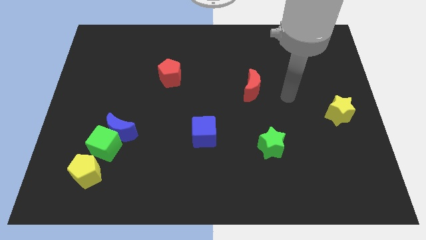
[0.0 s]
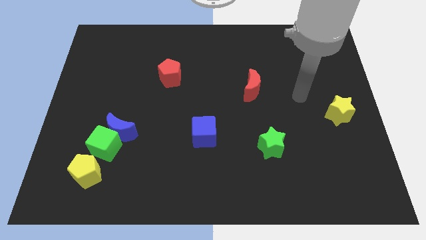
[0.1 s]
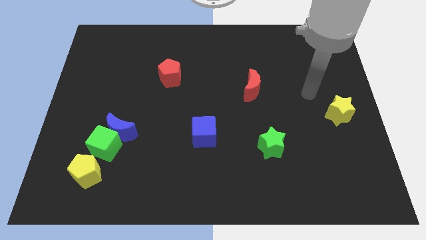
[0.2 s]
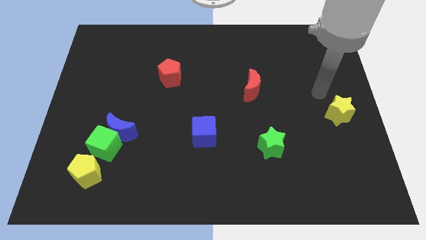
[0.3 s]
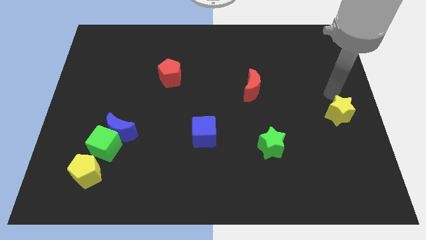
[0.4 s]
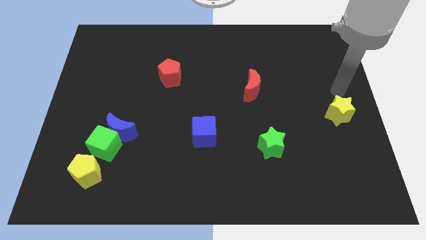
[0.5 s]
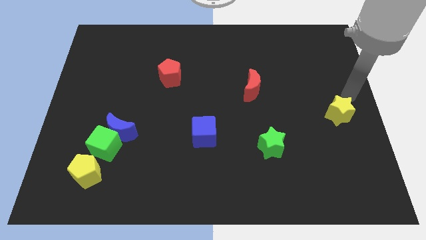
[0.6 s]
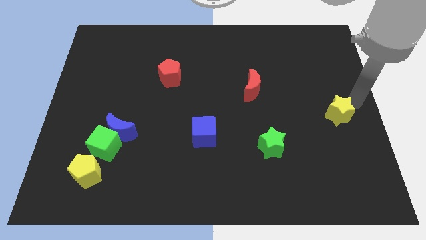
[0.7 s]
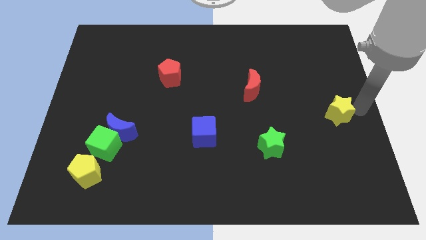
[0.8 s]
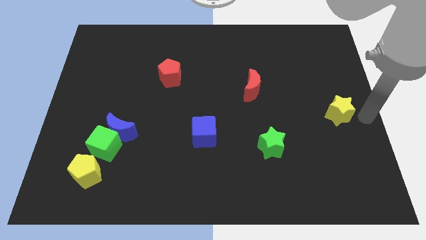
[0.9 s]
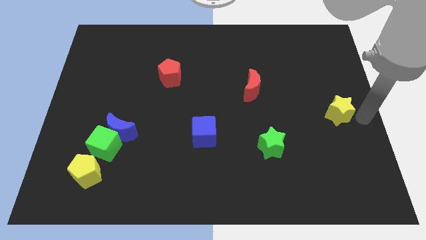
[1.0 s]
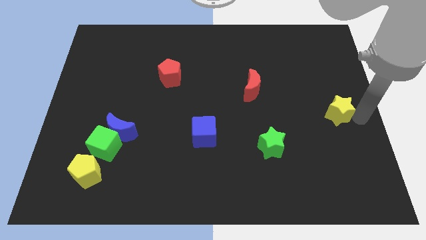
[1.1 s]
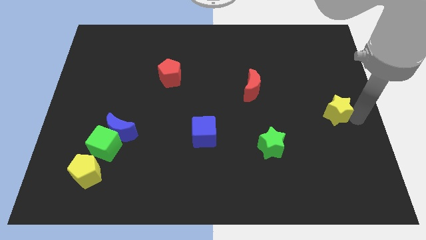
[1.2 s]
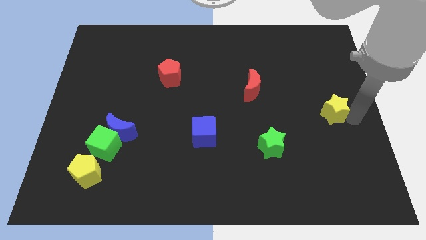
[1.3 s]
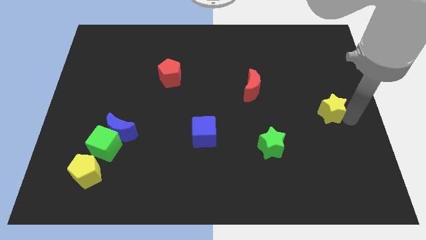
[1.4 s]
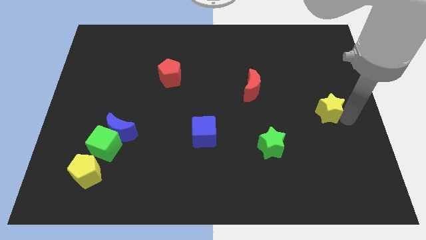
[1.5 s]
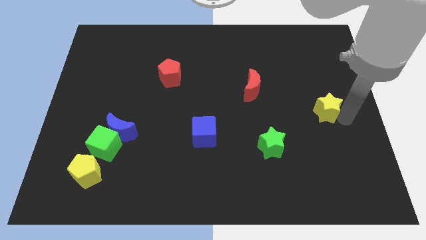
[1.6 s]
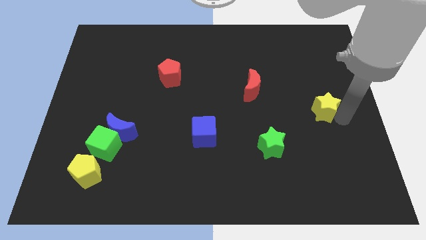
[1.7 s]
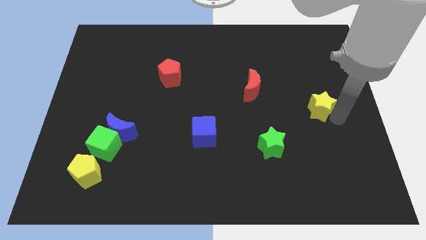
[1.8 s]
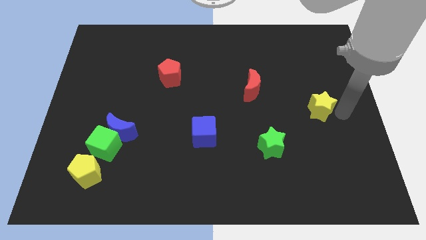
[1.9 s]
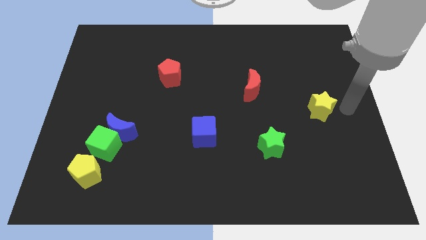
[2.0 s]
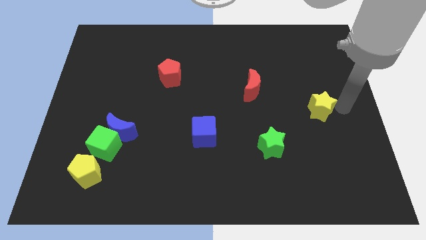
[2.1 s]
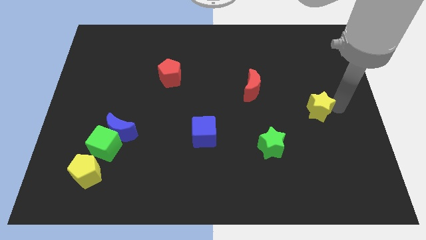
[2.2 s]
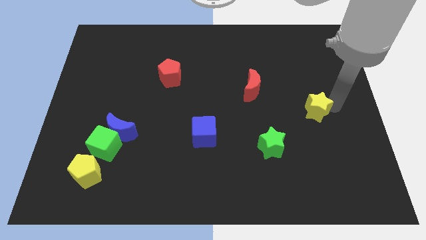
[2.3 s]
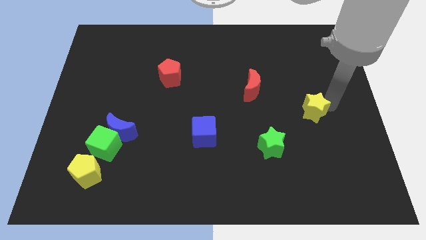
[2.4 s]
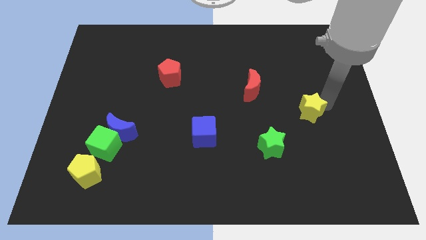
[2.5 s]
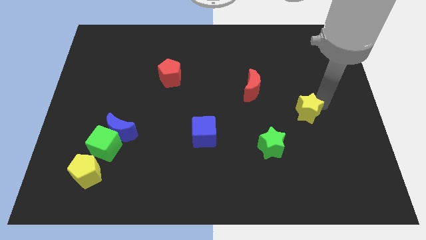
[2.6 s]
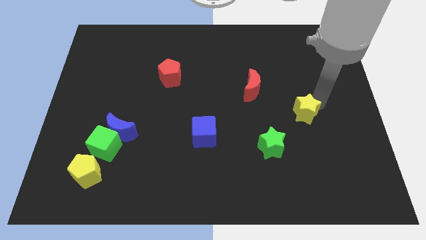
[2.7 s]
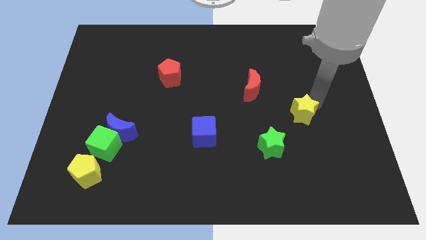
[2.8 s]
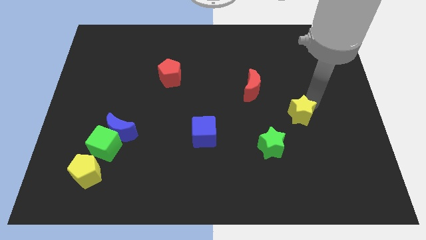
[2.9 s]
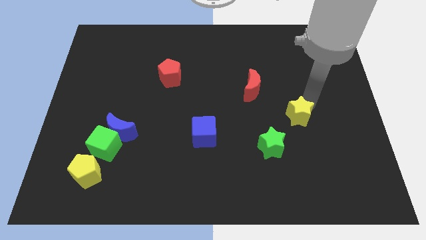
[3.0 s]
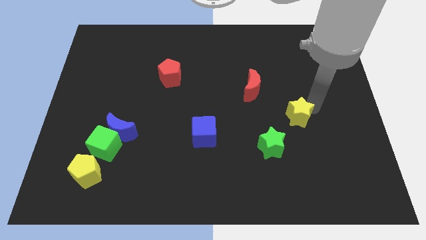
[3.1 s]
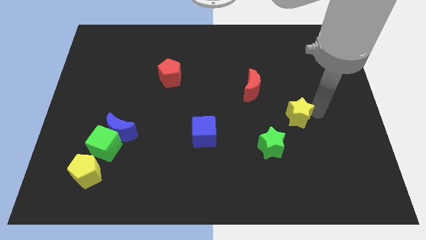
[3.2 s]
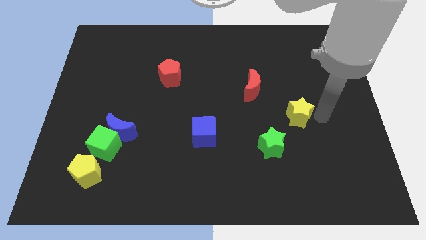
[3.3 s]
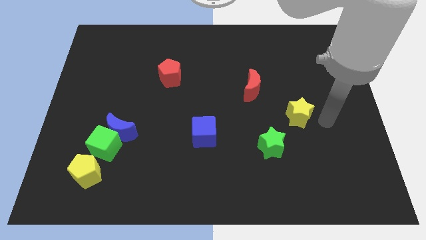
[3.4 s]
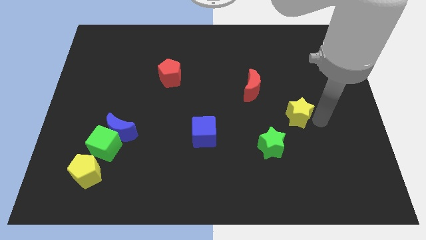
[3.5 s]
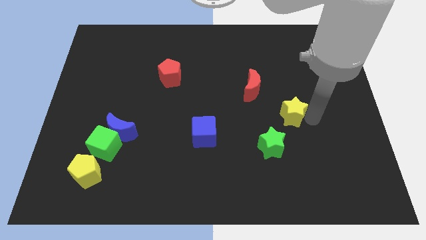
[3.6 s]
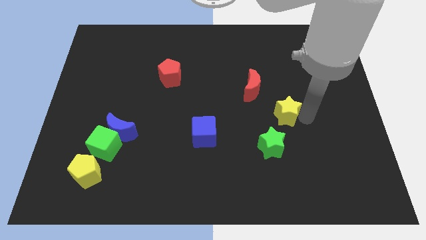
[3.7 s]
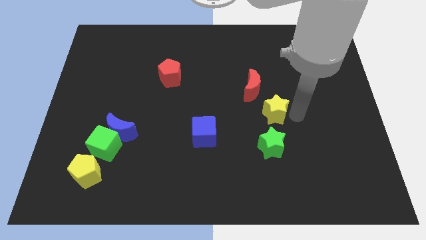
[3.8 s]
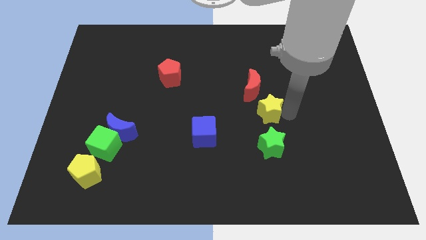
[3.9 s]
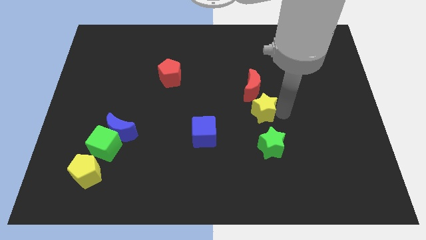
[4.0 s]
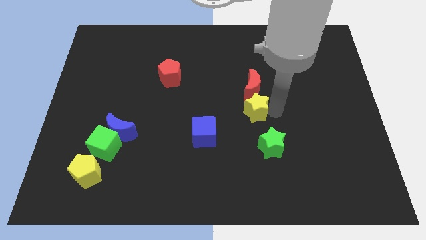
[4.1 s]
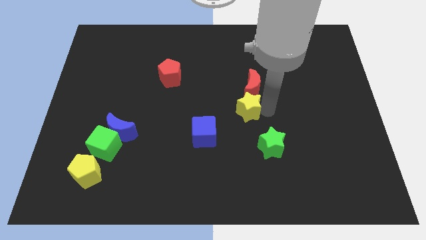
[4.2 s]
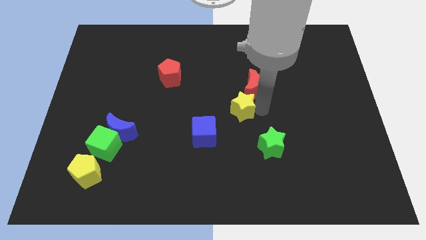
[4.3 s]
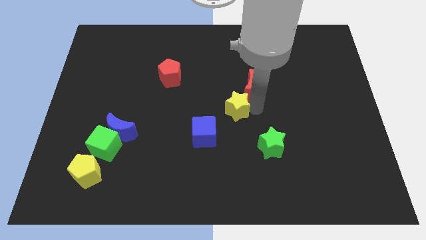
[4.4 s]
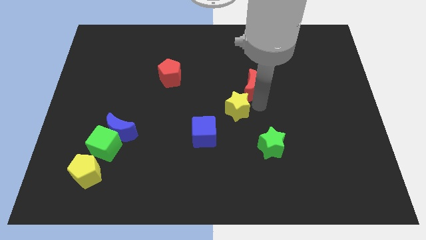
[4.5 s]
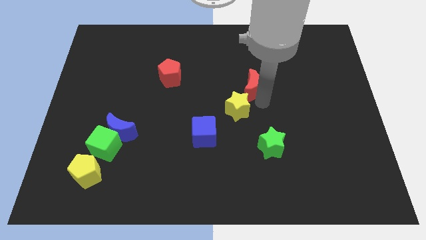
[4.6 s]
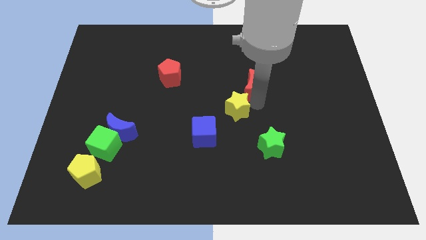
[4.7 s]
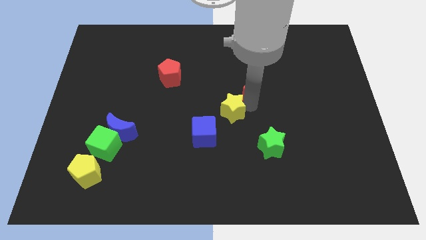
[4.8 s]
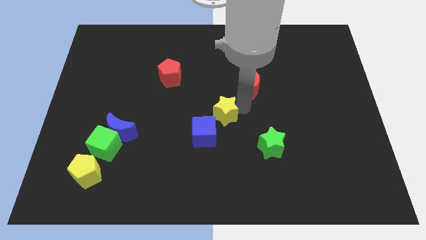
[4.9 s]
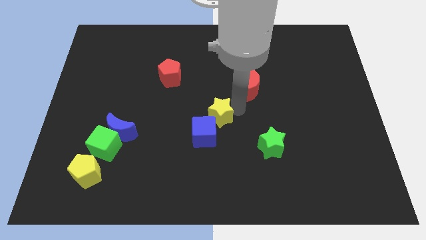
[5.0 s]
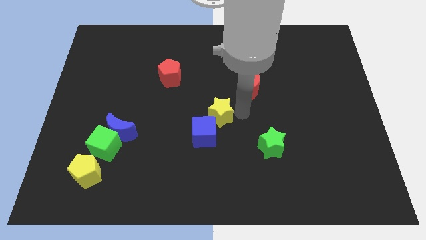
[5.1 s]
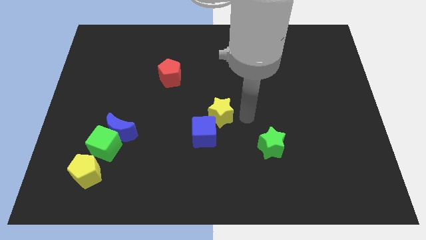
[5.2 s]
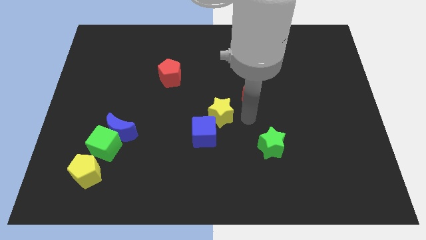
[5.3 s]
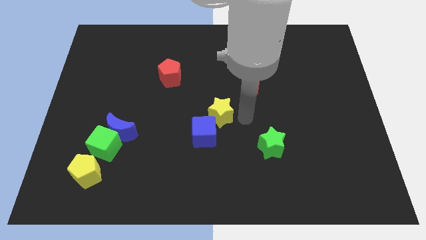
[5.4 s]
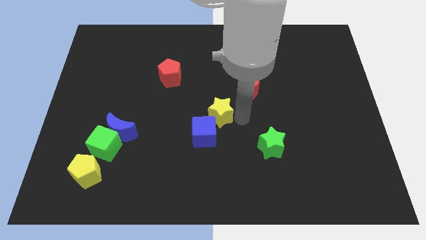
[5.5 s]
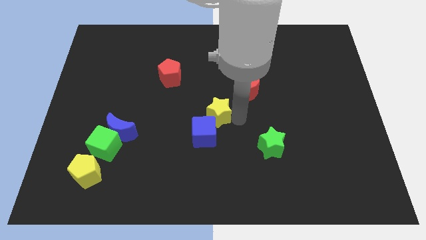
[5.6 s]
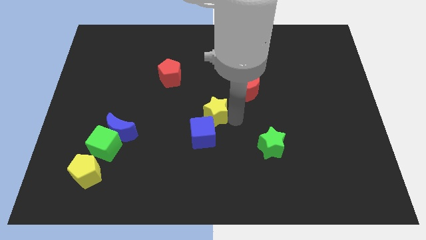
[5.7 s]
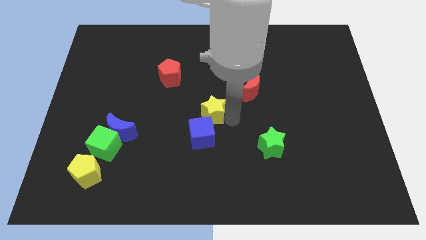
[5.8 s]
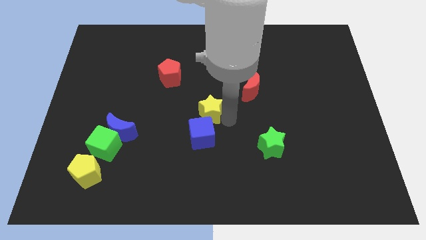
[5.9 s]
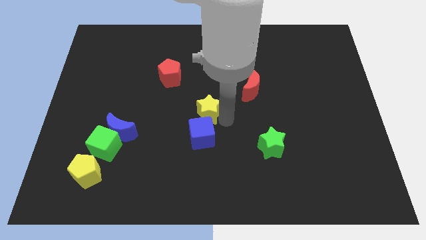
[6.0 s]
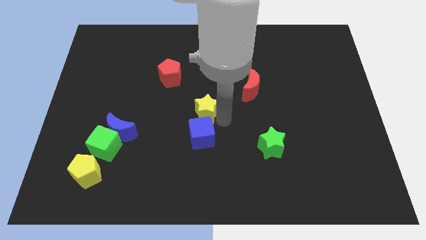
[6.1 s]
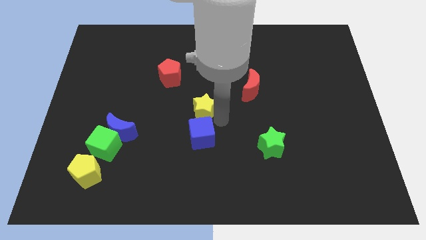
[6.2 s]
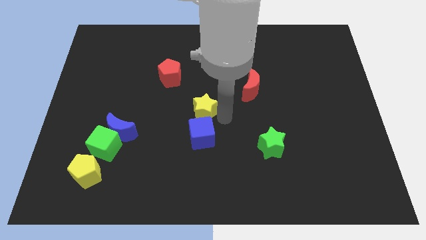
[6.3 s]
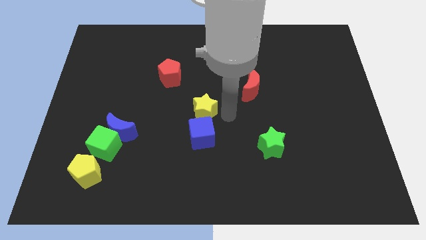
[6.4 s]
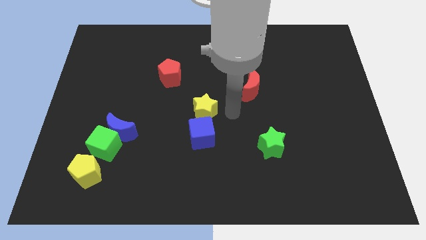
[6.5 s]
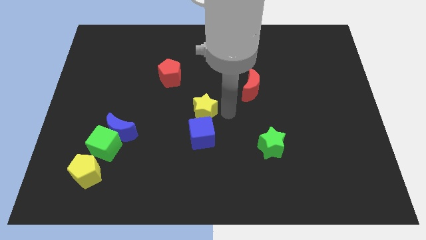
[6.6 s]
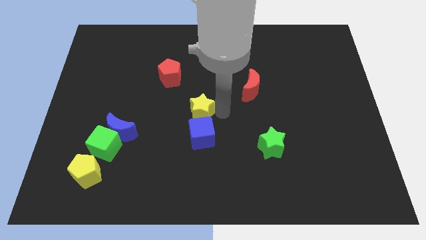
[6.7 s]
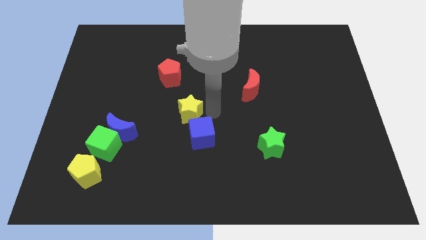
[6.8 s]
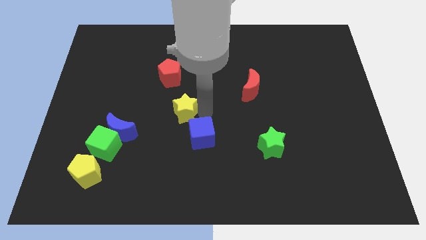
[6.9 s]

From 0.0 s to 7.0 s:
move the yellow star to the bottom side of the red pentagon

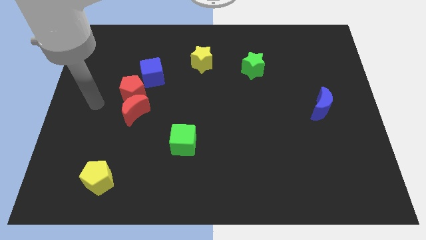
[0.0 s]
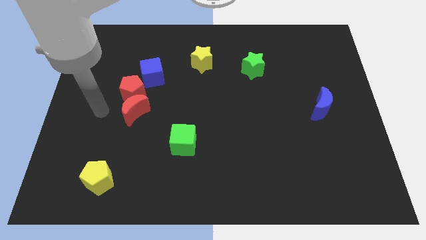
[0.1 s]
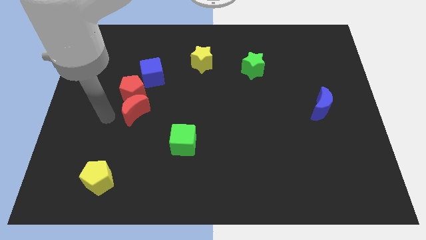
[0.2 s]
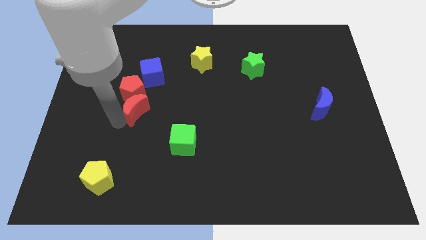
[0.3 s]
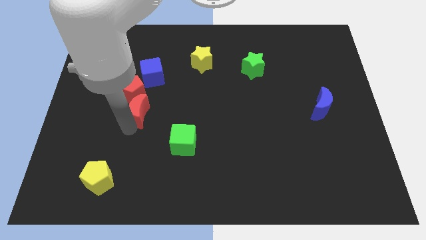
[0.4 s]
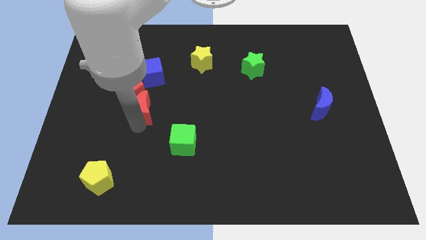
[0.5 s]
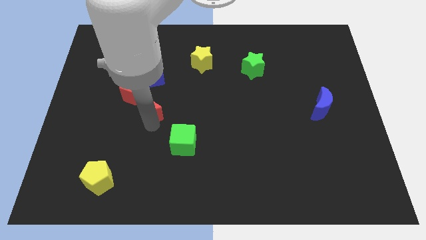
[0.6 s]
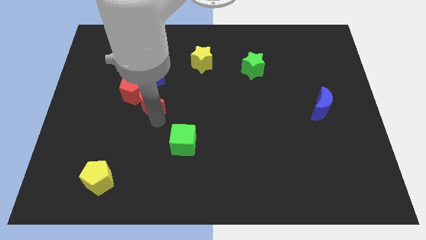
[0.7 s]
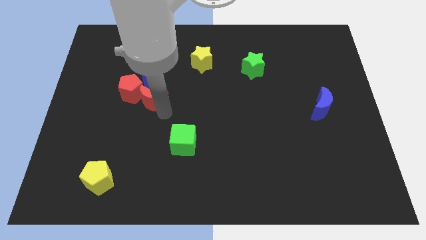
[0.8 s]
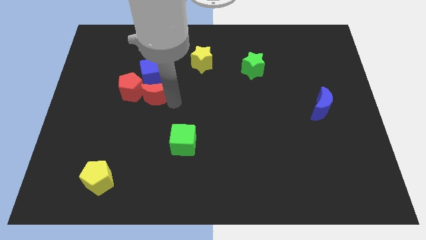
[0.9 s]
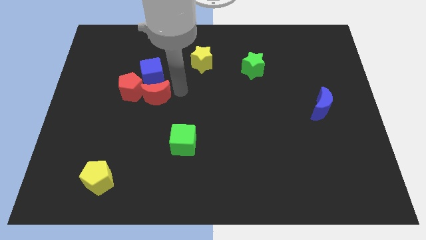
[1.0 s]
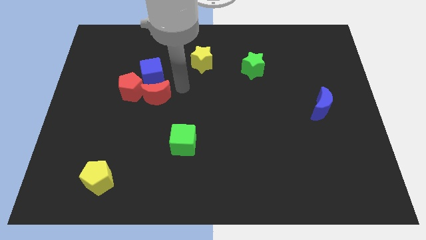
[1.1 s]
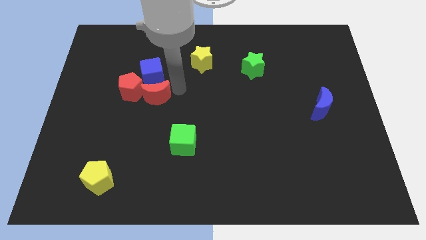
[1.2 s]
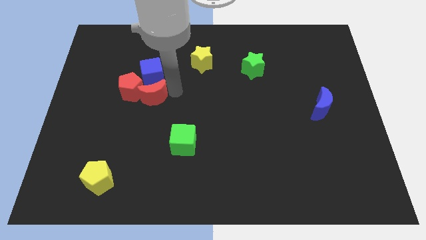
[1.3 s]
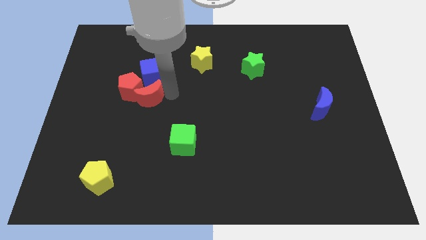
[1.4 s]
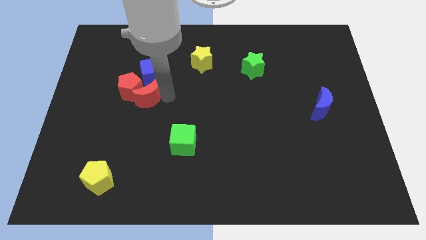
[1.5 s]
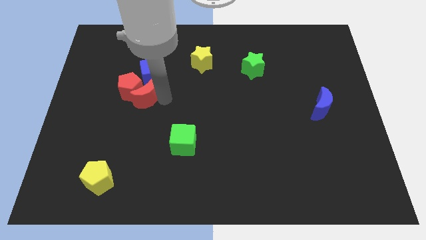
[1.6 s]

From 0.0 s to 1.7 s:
push the red moon to the bottom left side of the blue cube
